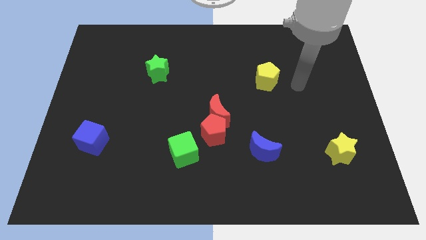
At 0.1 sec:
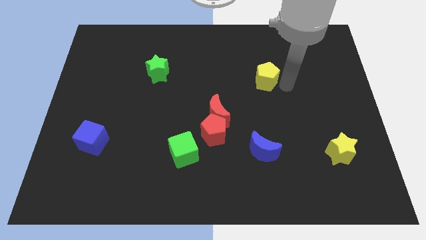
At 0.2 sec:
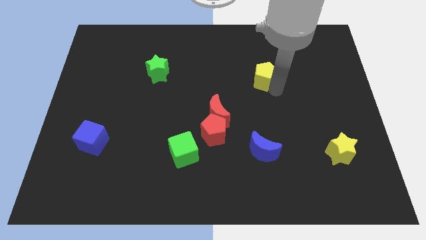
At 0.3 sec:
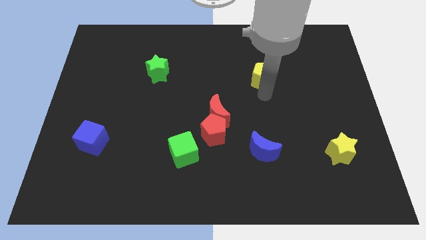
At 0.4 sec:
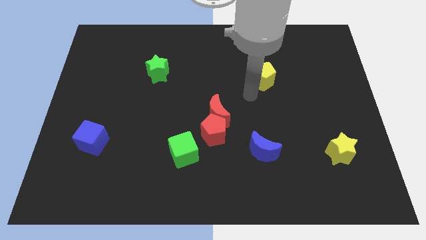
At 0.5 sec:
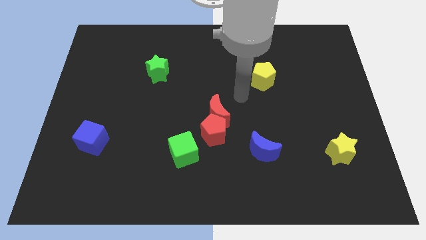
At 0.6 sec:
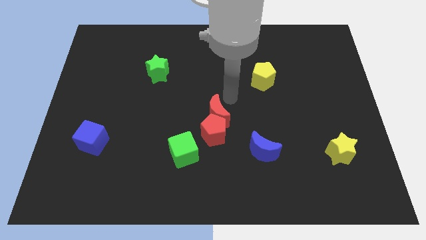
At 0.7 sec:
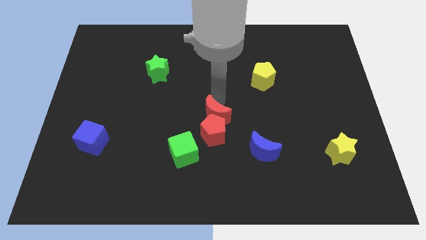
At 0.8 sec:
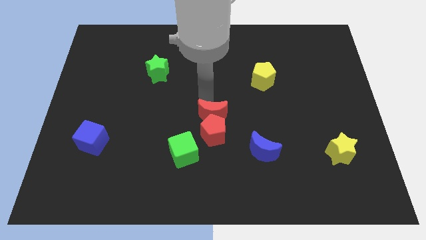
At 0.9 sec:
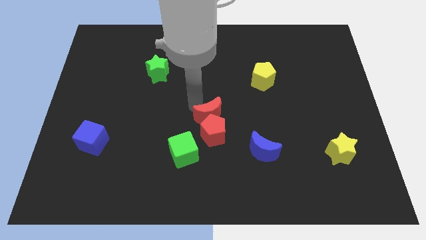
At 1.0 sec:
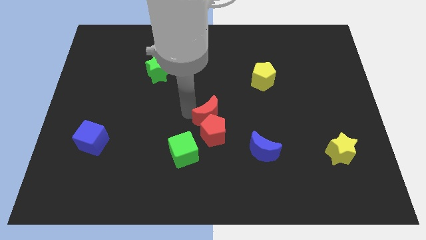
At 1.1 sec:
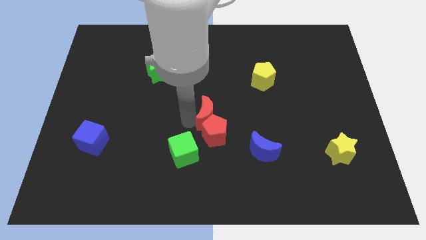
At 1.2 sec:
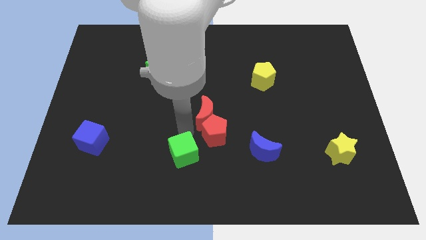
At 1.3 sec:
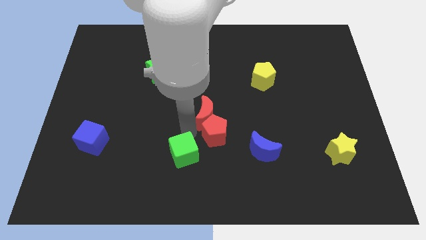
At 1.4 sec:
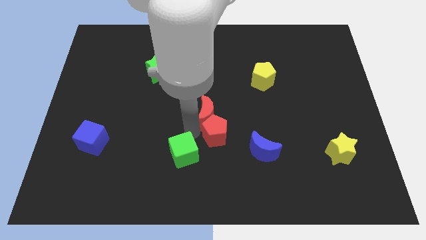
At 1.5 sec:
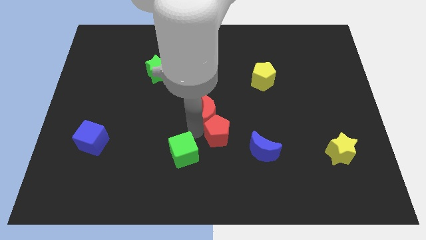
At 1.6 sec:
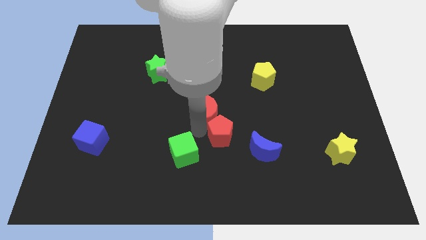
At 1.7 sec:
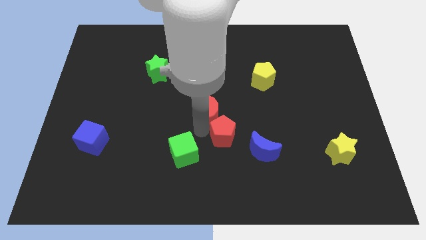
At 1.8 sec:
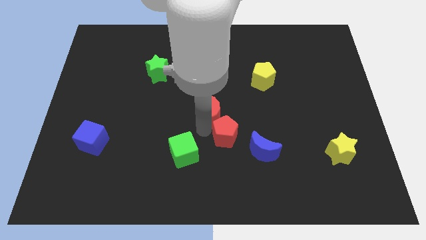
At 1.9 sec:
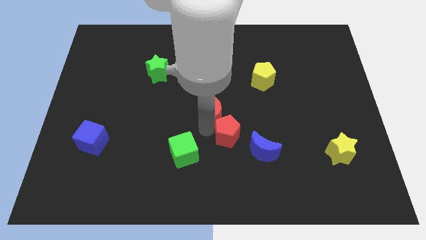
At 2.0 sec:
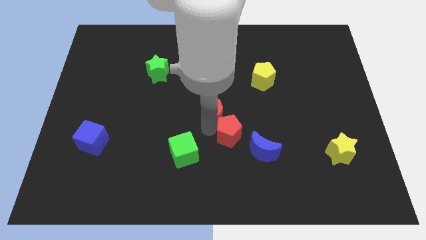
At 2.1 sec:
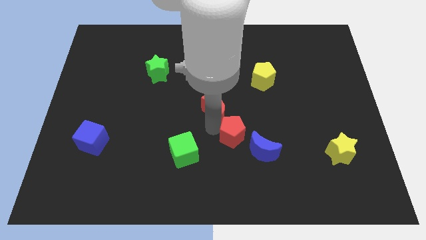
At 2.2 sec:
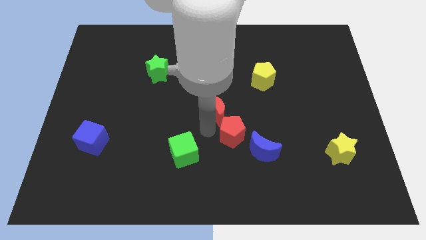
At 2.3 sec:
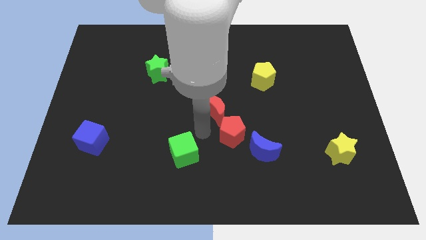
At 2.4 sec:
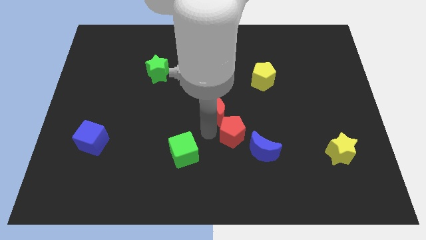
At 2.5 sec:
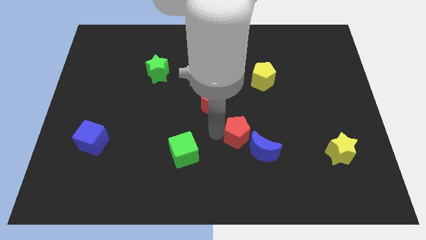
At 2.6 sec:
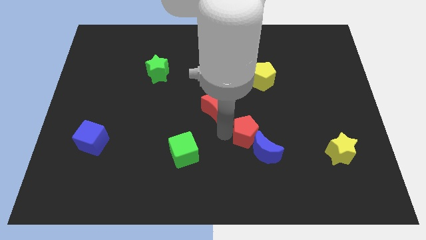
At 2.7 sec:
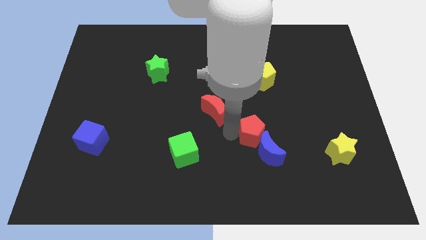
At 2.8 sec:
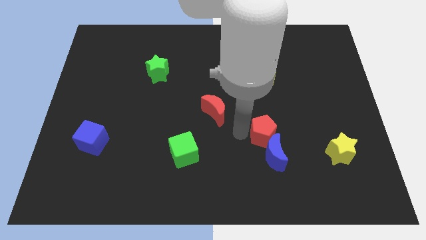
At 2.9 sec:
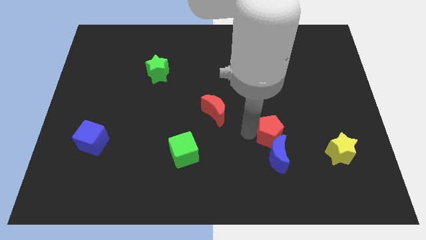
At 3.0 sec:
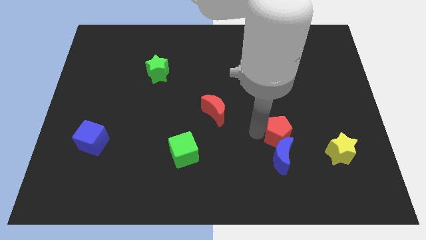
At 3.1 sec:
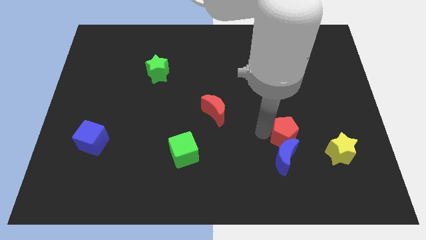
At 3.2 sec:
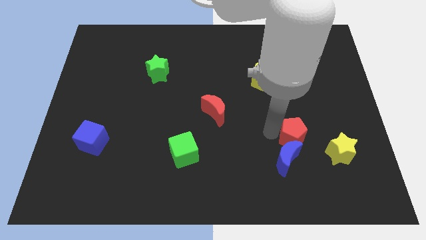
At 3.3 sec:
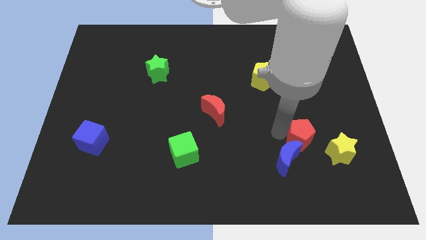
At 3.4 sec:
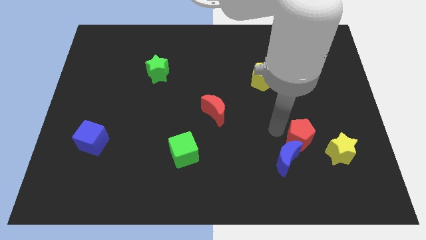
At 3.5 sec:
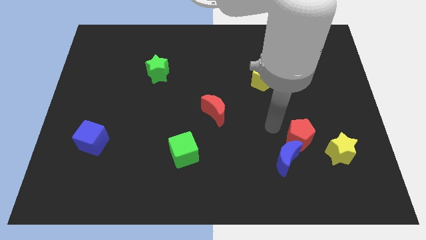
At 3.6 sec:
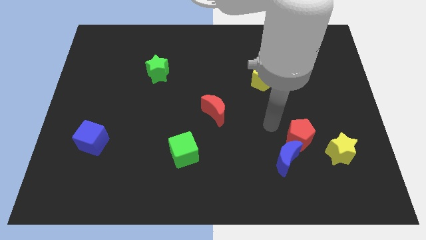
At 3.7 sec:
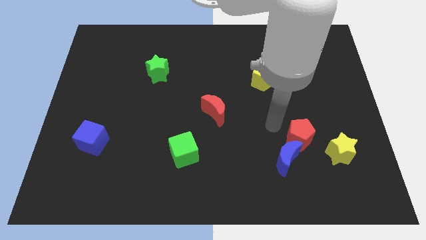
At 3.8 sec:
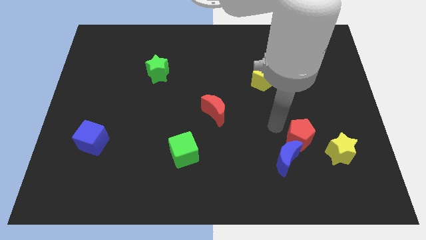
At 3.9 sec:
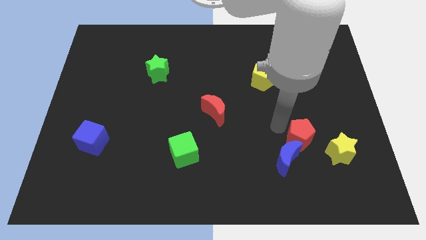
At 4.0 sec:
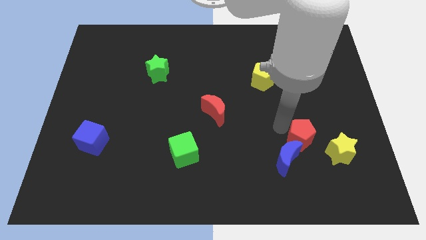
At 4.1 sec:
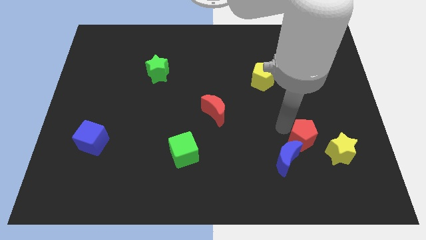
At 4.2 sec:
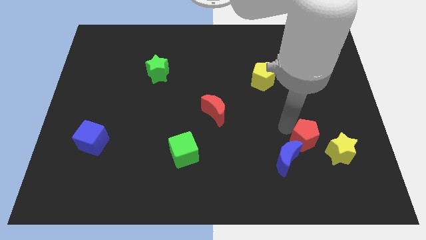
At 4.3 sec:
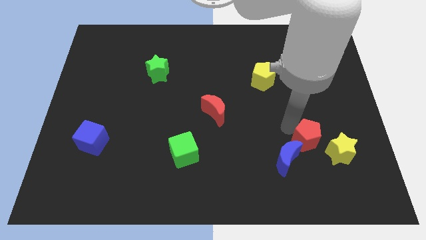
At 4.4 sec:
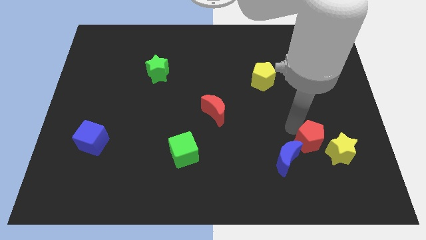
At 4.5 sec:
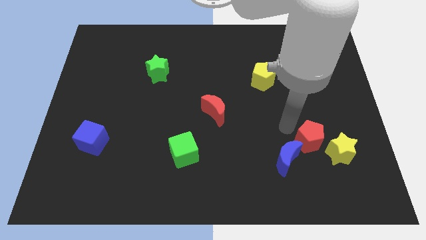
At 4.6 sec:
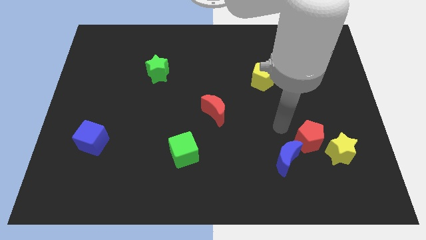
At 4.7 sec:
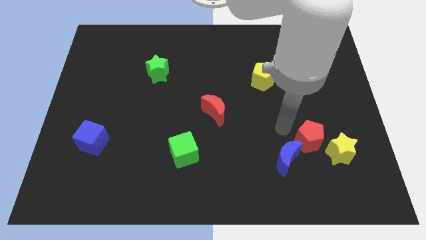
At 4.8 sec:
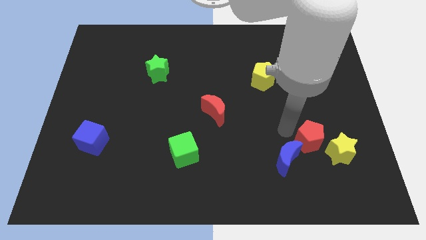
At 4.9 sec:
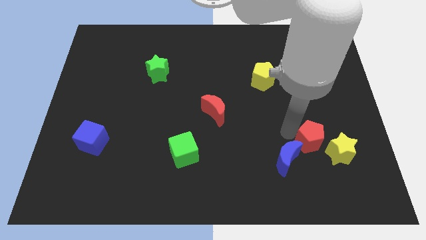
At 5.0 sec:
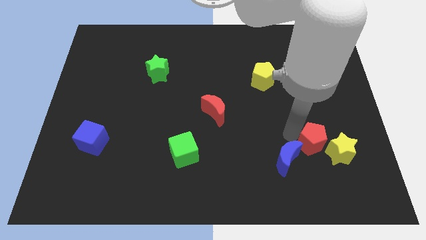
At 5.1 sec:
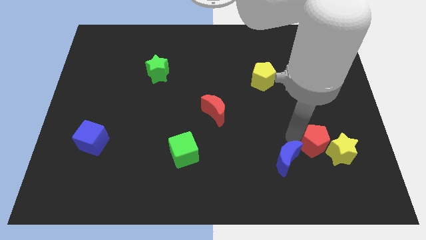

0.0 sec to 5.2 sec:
put the red pentagon towards the yellow star

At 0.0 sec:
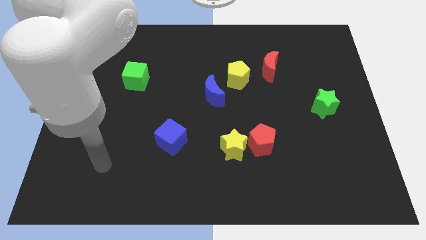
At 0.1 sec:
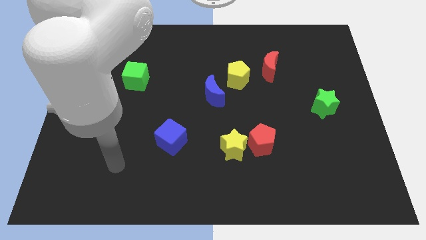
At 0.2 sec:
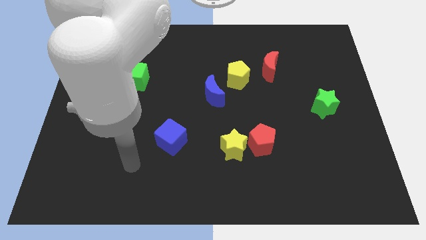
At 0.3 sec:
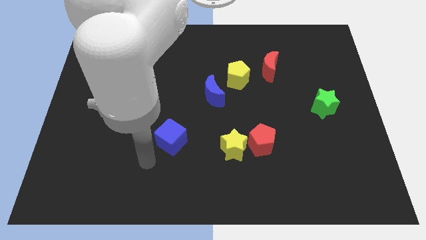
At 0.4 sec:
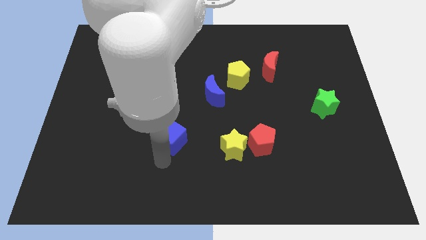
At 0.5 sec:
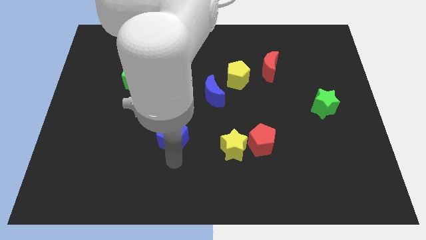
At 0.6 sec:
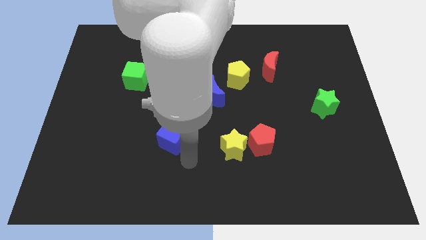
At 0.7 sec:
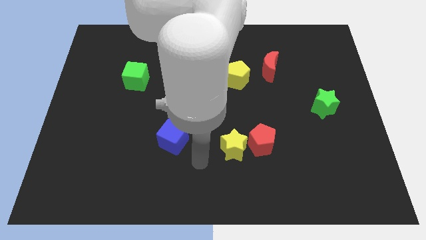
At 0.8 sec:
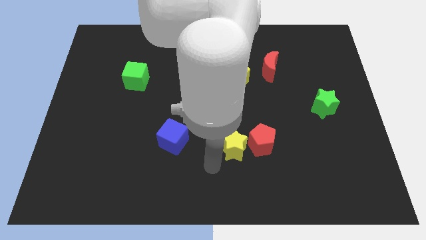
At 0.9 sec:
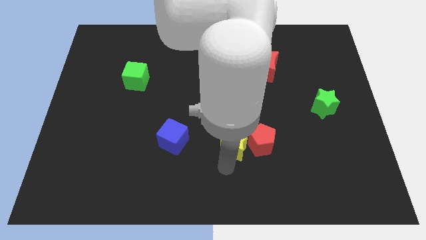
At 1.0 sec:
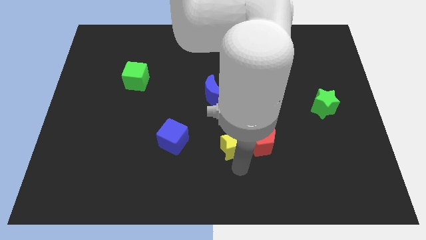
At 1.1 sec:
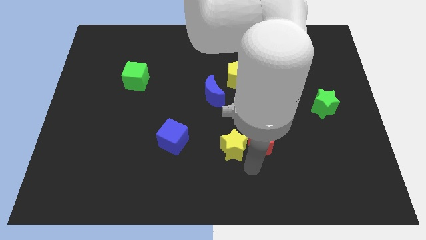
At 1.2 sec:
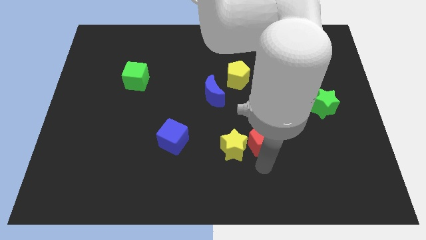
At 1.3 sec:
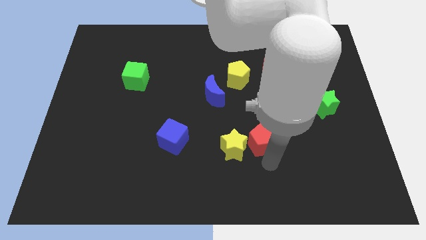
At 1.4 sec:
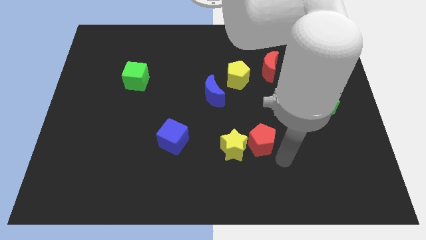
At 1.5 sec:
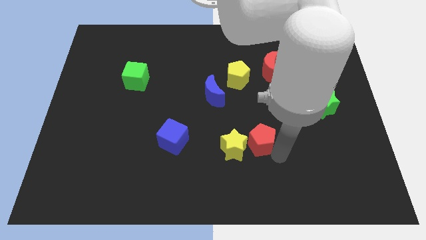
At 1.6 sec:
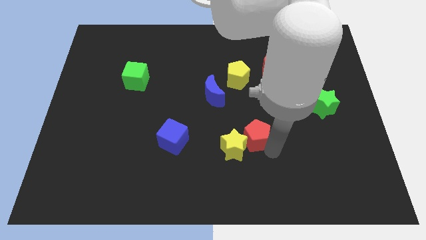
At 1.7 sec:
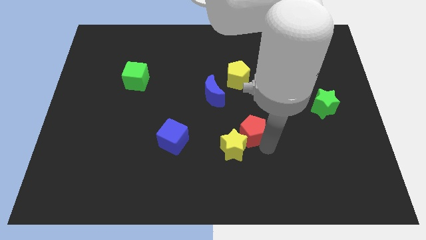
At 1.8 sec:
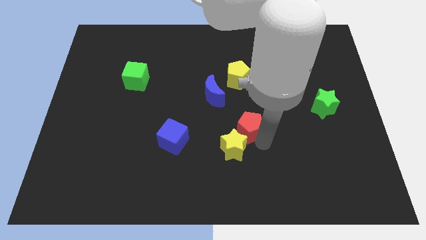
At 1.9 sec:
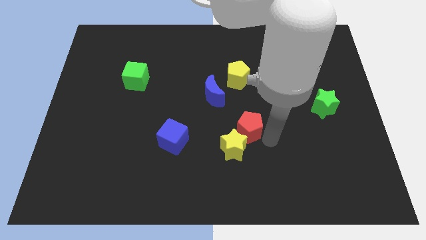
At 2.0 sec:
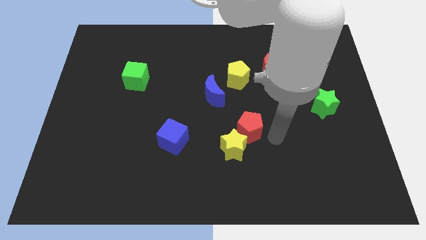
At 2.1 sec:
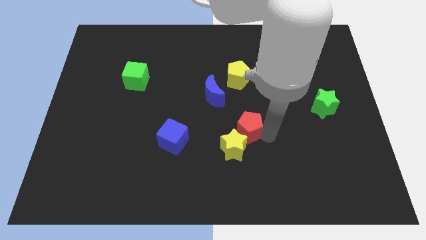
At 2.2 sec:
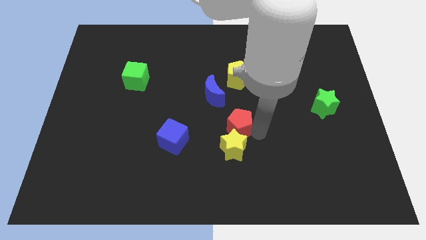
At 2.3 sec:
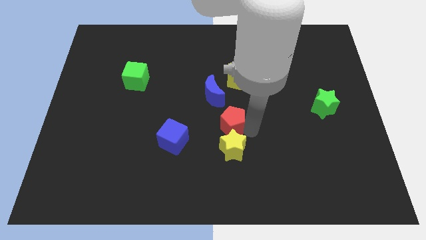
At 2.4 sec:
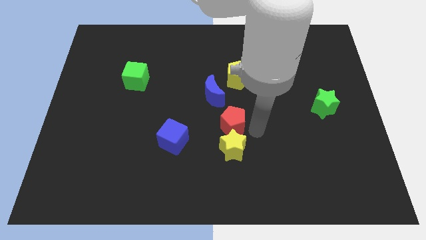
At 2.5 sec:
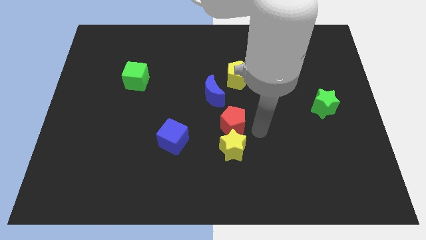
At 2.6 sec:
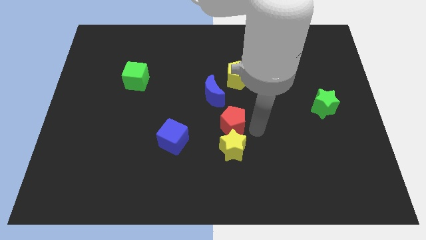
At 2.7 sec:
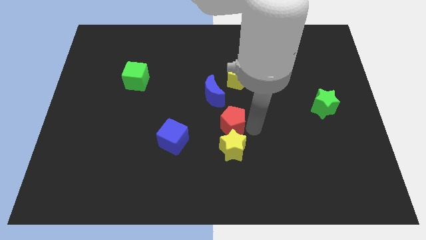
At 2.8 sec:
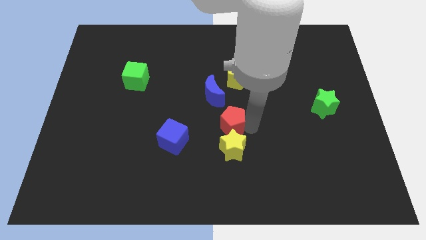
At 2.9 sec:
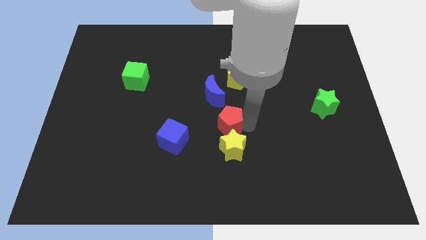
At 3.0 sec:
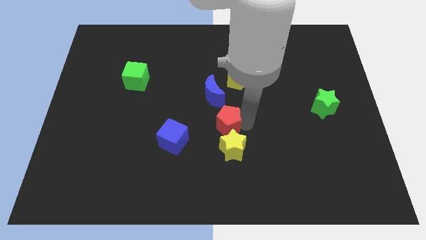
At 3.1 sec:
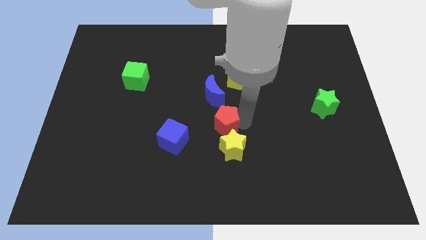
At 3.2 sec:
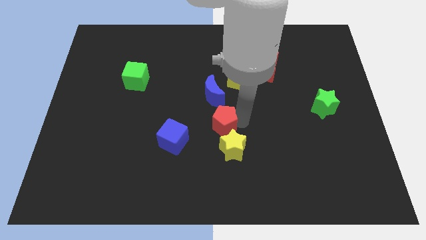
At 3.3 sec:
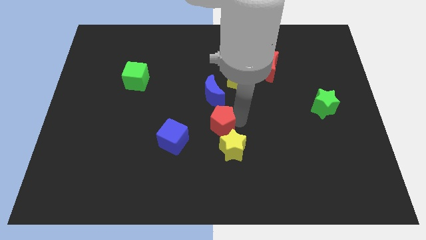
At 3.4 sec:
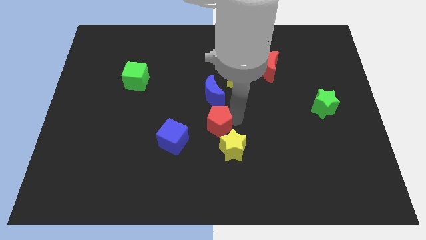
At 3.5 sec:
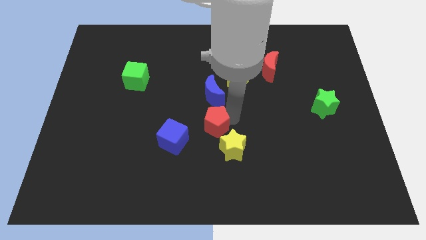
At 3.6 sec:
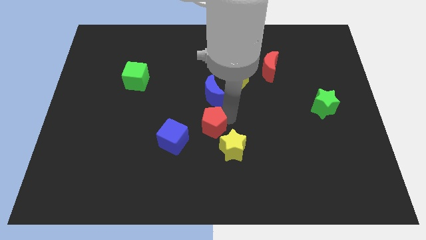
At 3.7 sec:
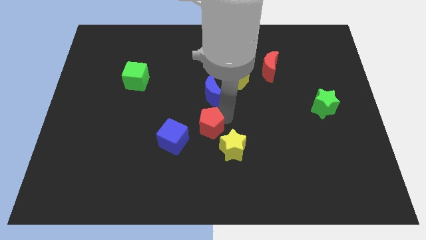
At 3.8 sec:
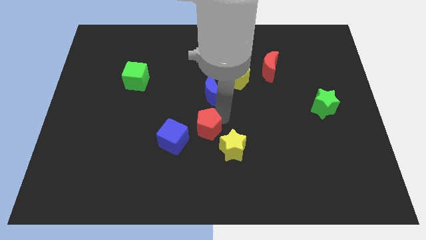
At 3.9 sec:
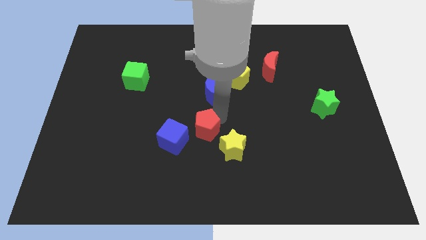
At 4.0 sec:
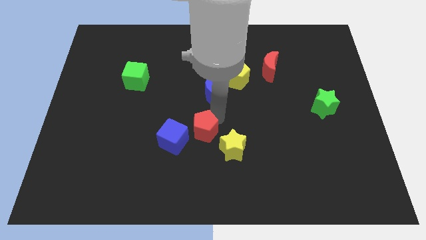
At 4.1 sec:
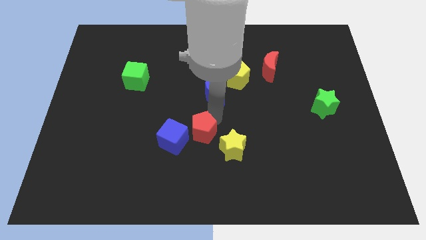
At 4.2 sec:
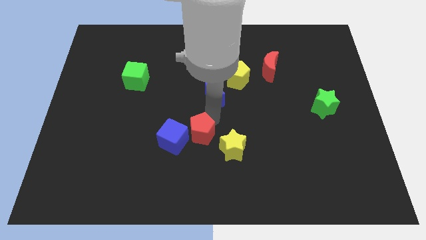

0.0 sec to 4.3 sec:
slide the red pentagon close to the blue cube
